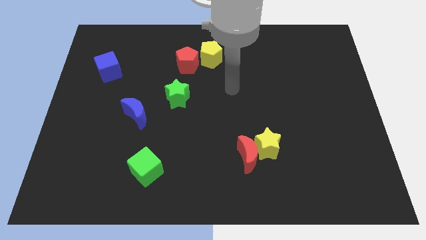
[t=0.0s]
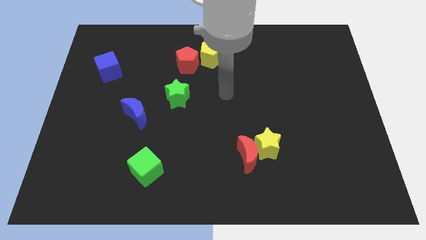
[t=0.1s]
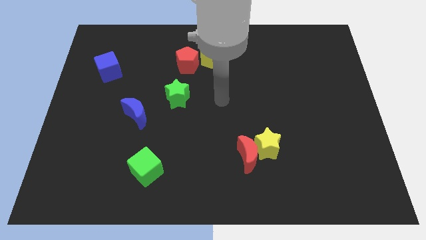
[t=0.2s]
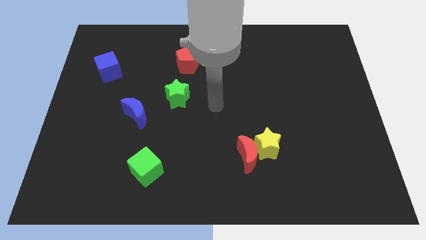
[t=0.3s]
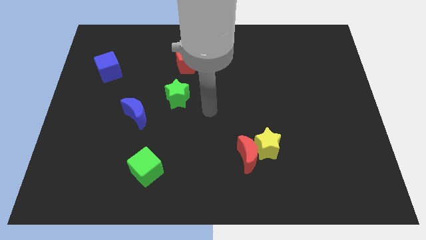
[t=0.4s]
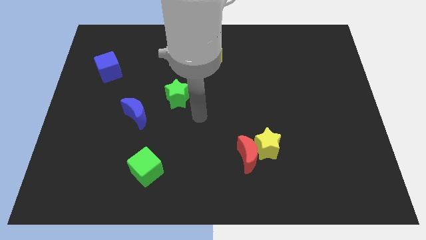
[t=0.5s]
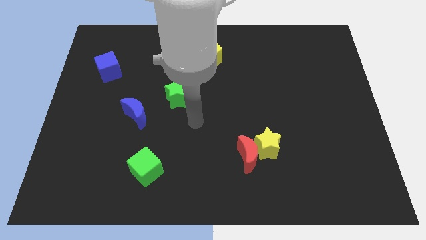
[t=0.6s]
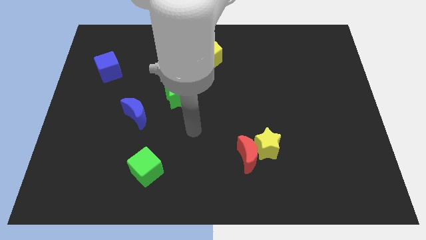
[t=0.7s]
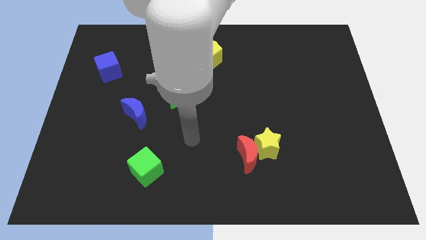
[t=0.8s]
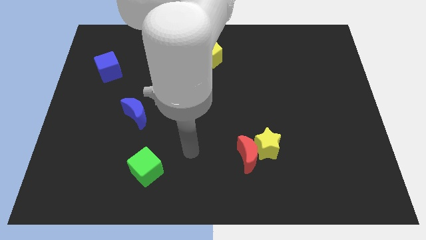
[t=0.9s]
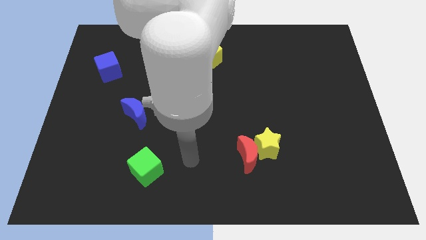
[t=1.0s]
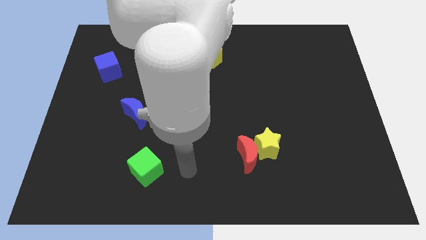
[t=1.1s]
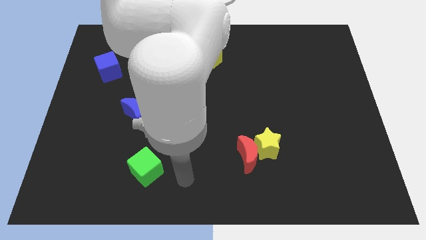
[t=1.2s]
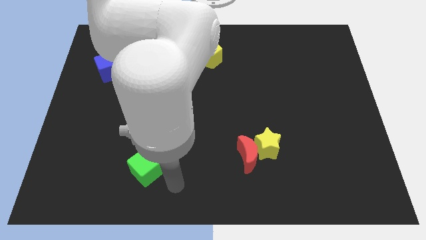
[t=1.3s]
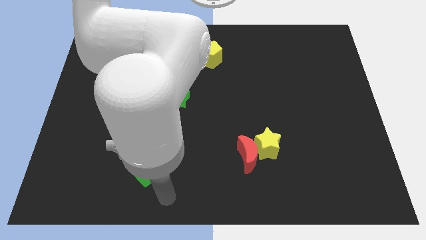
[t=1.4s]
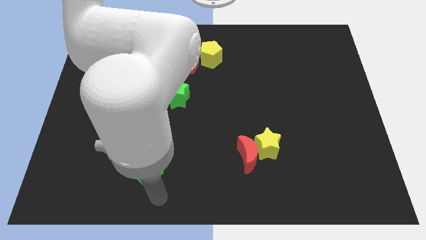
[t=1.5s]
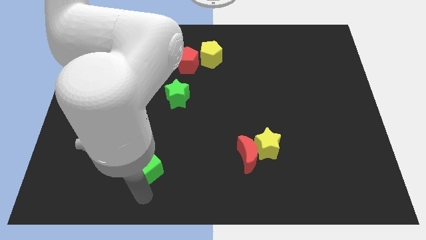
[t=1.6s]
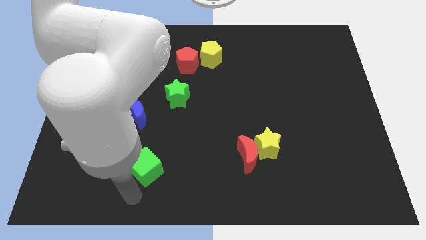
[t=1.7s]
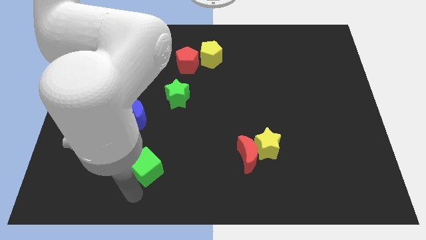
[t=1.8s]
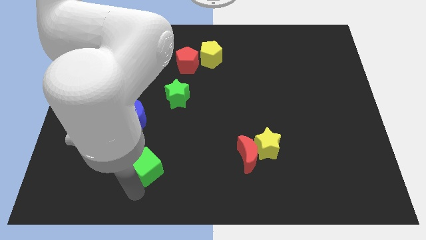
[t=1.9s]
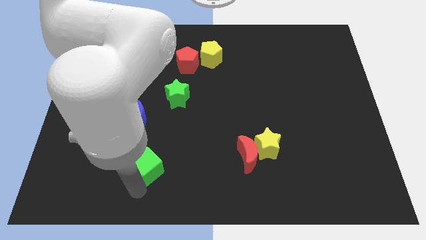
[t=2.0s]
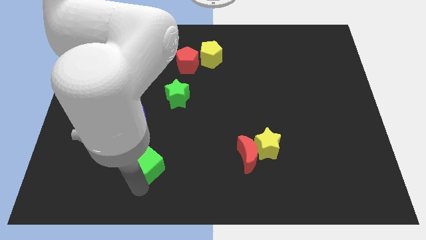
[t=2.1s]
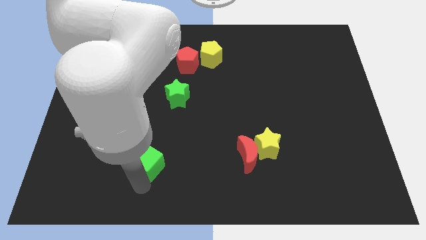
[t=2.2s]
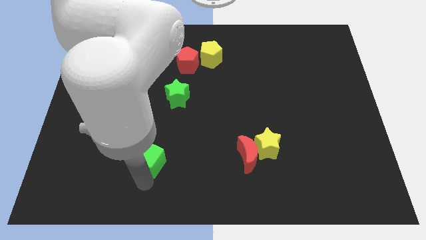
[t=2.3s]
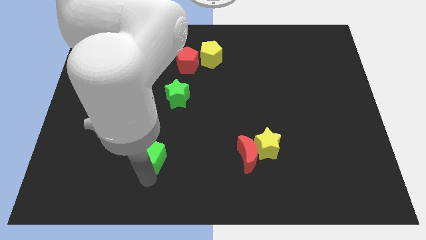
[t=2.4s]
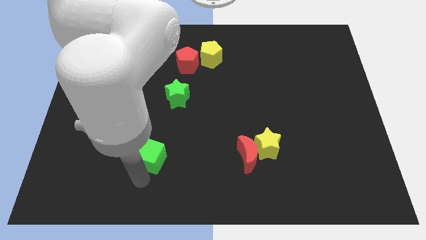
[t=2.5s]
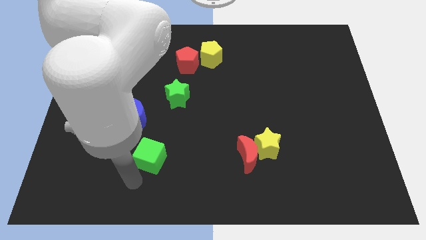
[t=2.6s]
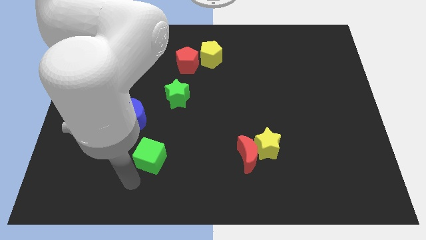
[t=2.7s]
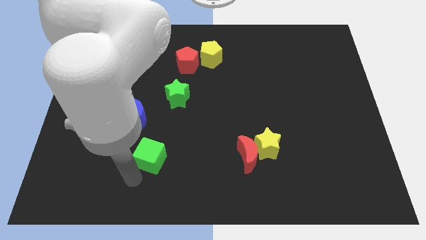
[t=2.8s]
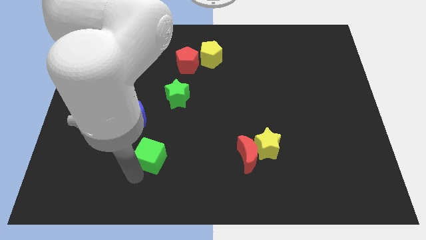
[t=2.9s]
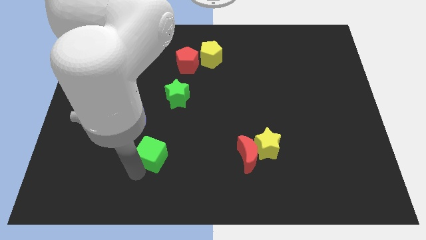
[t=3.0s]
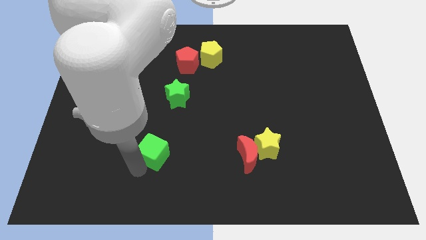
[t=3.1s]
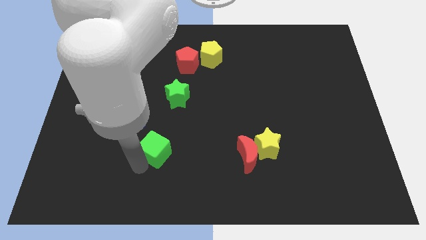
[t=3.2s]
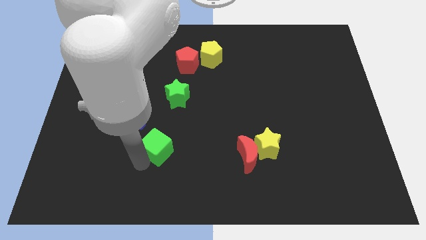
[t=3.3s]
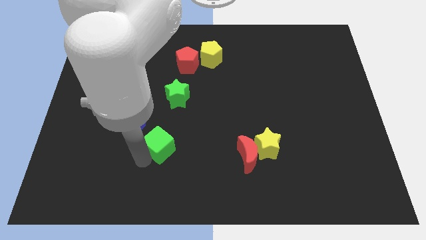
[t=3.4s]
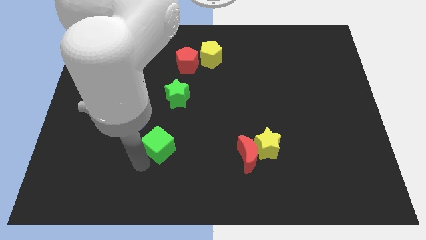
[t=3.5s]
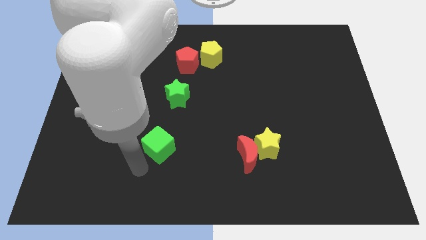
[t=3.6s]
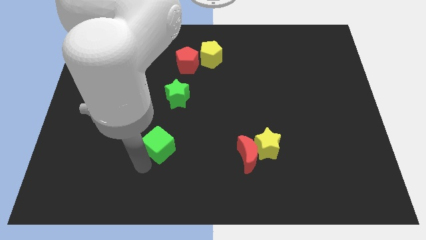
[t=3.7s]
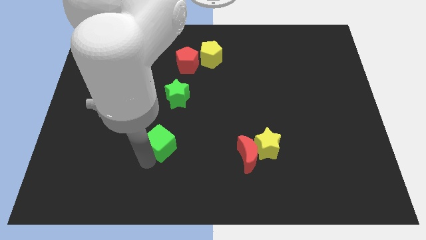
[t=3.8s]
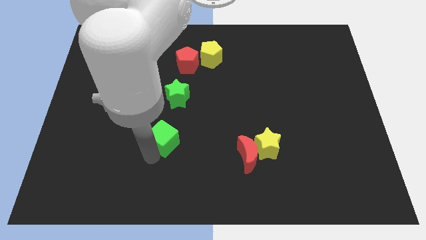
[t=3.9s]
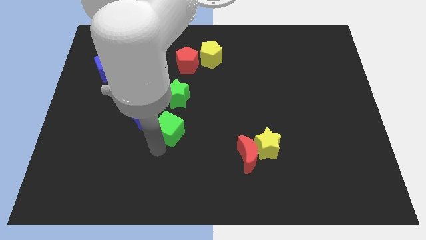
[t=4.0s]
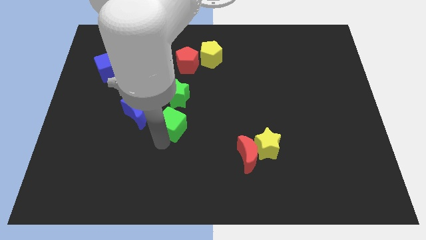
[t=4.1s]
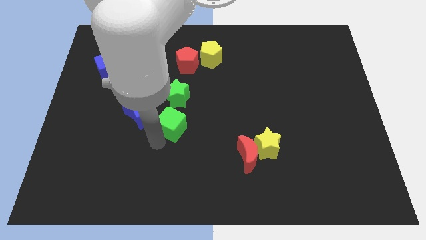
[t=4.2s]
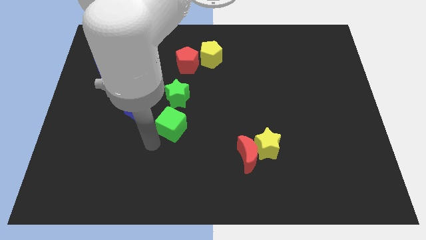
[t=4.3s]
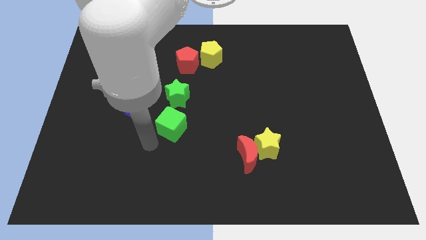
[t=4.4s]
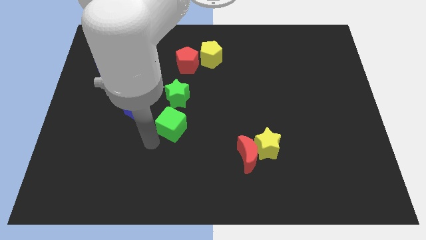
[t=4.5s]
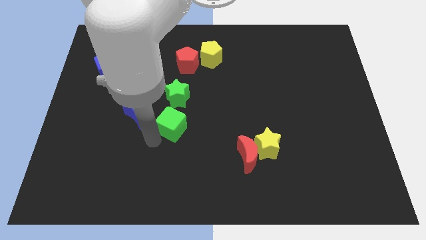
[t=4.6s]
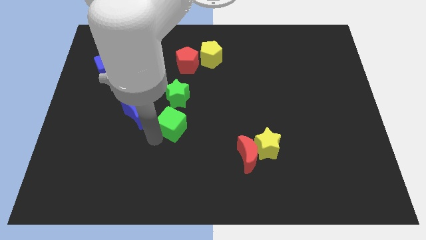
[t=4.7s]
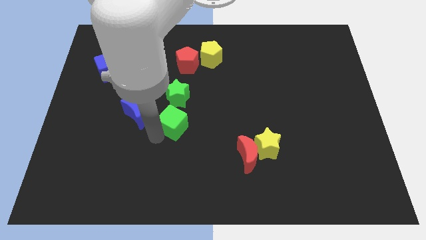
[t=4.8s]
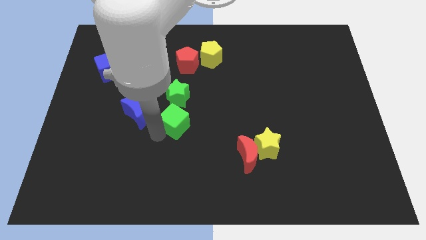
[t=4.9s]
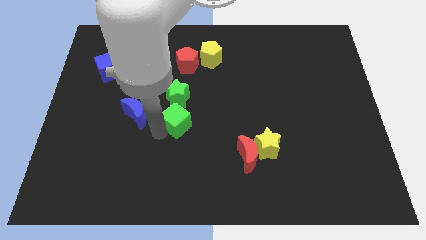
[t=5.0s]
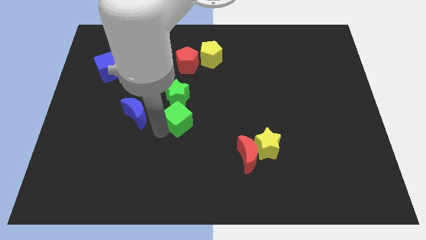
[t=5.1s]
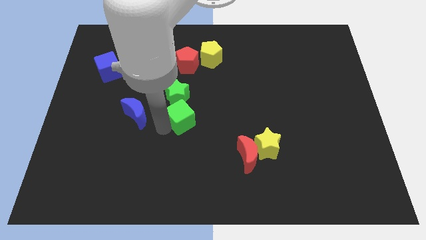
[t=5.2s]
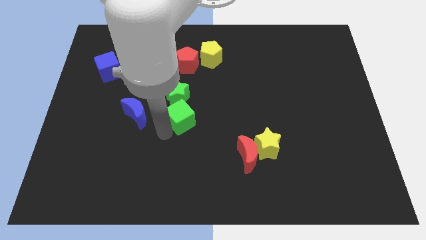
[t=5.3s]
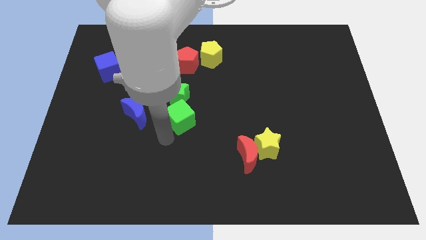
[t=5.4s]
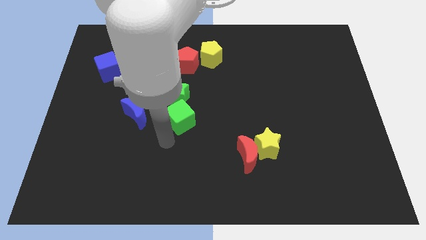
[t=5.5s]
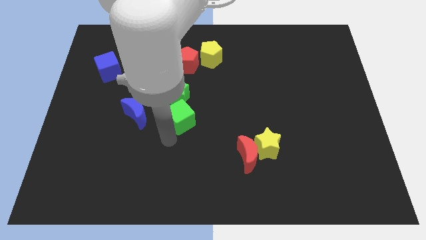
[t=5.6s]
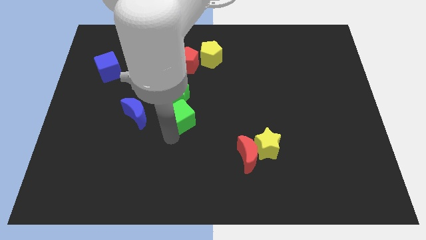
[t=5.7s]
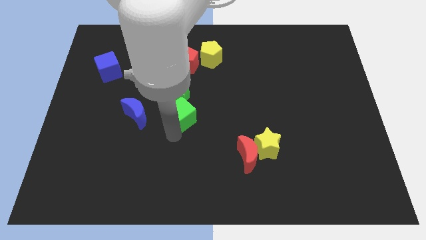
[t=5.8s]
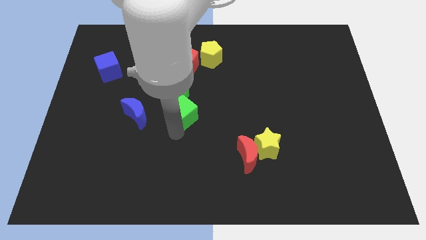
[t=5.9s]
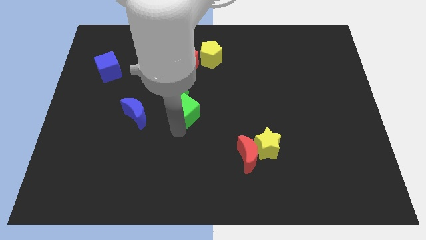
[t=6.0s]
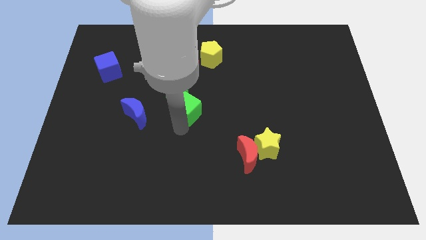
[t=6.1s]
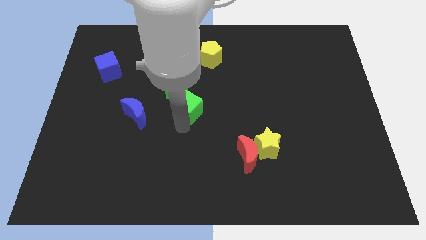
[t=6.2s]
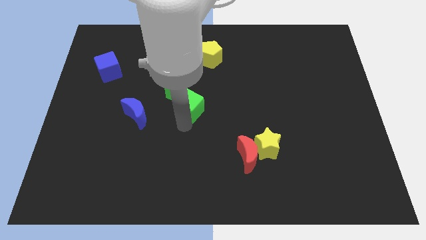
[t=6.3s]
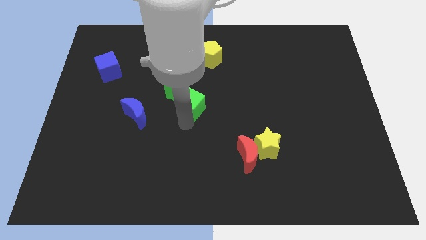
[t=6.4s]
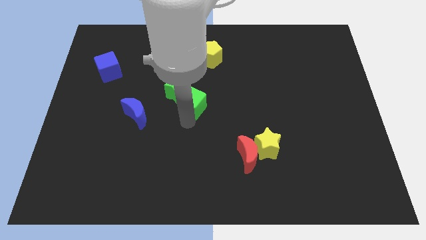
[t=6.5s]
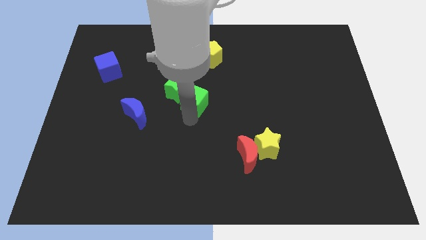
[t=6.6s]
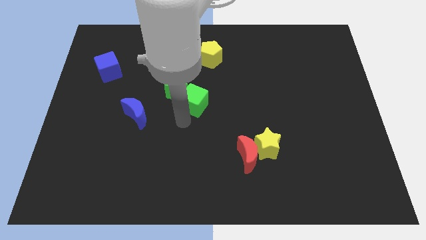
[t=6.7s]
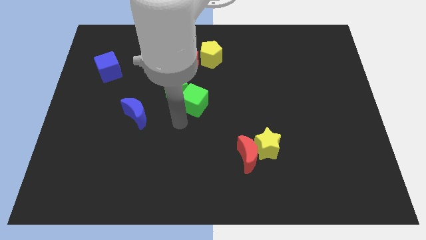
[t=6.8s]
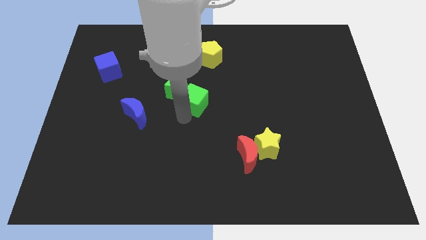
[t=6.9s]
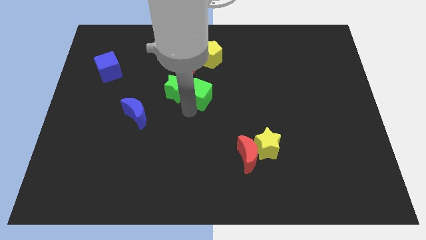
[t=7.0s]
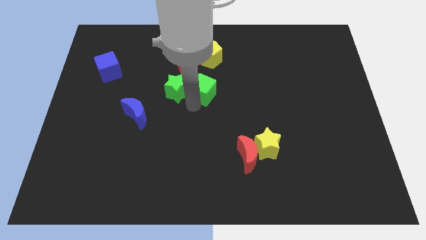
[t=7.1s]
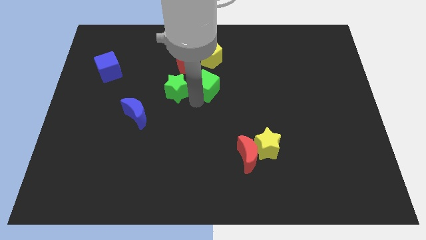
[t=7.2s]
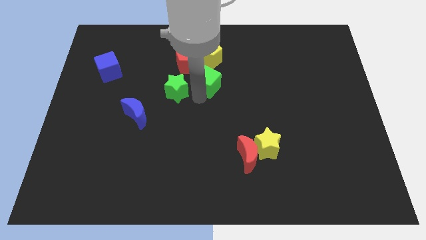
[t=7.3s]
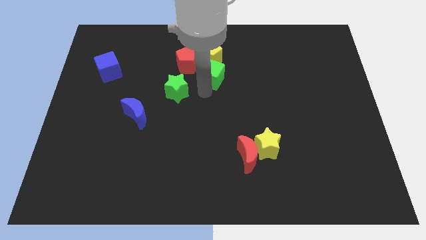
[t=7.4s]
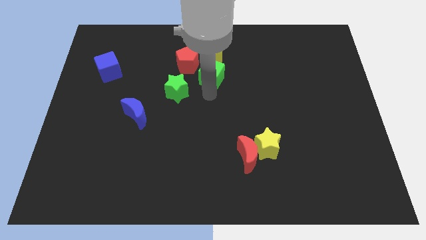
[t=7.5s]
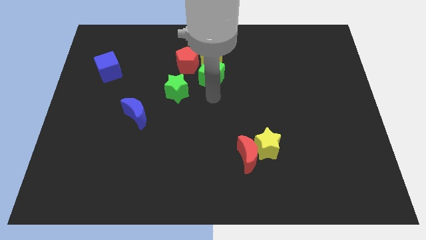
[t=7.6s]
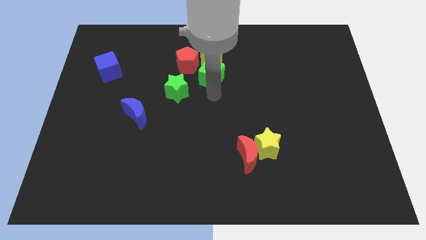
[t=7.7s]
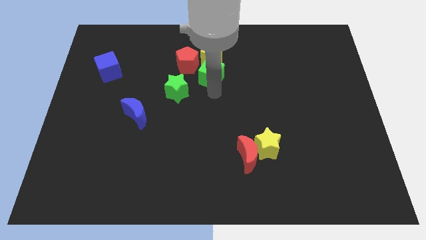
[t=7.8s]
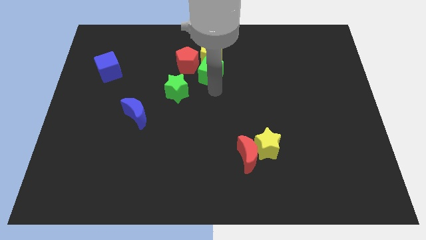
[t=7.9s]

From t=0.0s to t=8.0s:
slide the green cube next to the yellow pentagon
